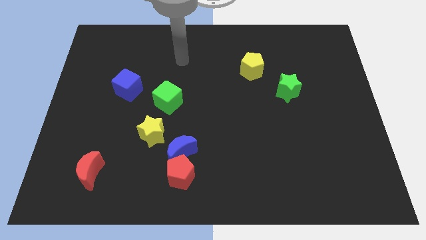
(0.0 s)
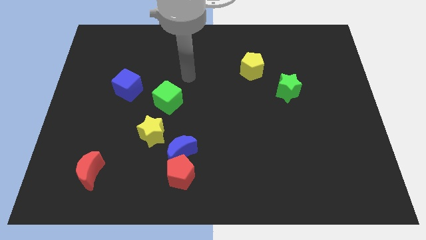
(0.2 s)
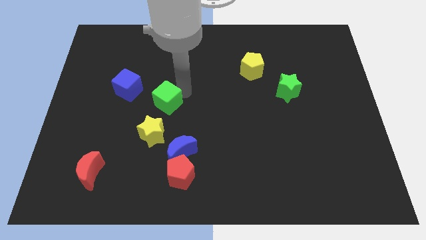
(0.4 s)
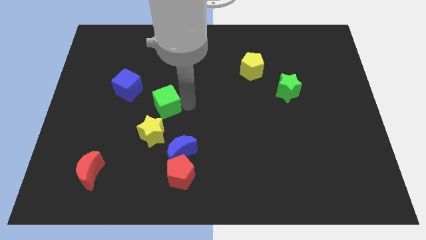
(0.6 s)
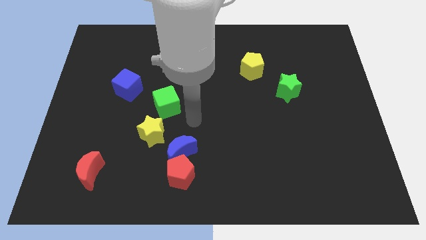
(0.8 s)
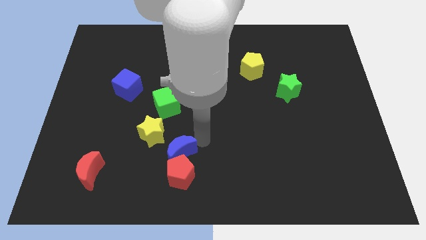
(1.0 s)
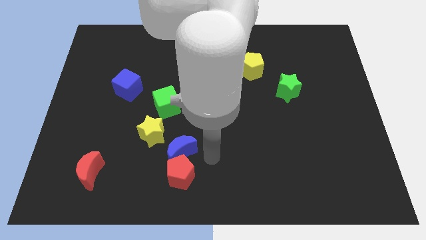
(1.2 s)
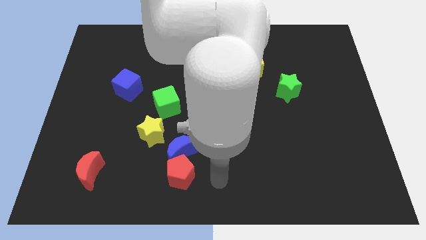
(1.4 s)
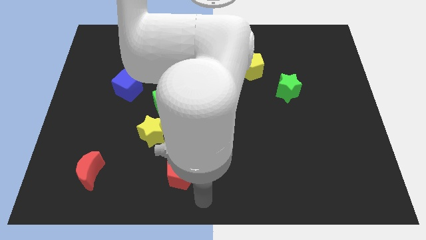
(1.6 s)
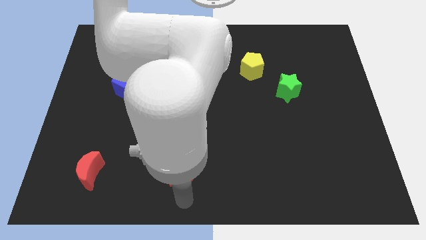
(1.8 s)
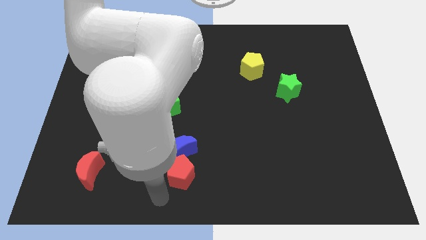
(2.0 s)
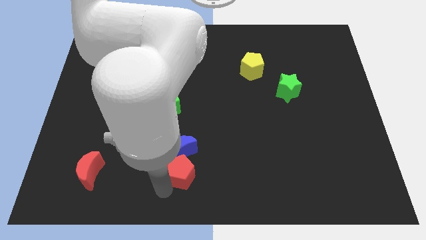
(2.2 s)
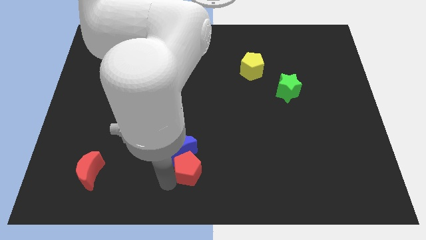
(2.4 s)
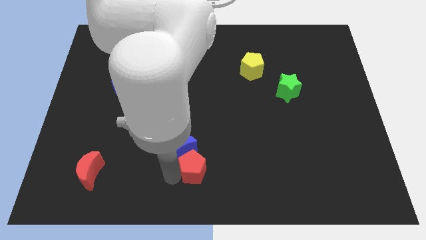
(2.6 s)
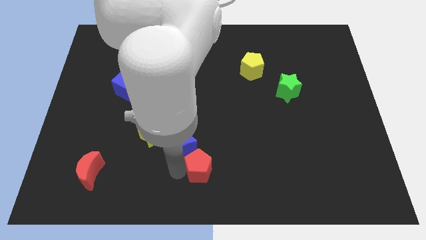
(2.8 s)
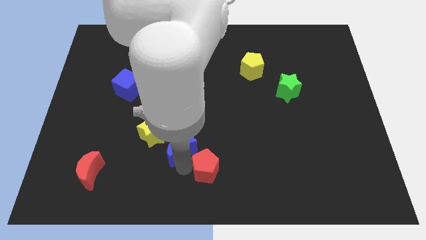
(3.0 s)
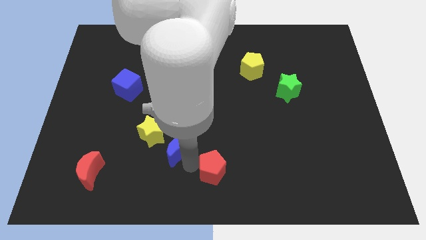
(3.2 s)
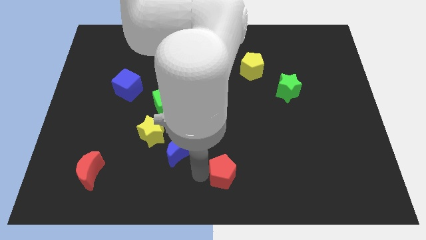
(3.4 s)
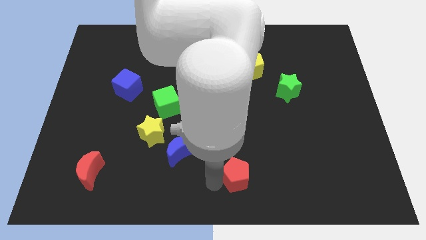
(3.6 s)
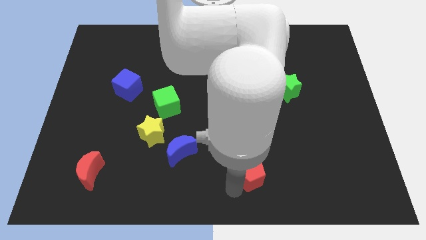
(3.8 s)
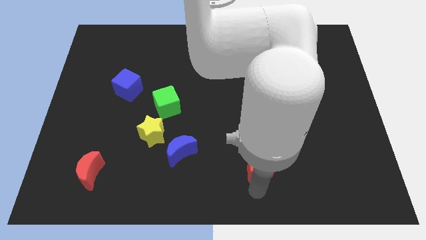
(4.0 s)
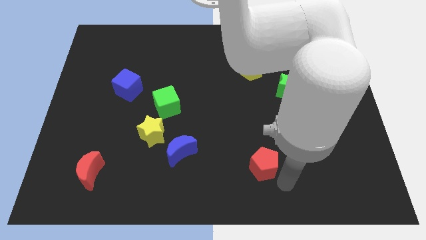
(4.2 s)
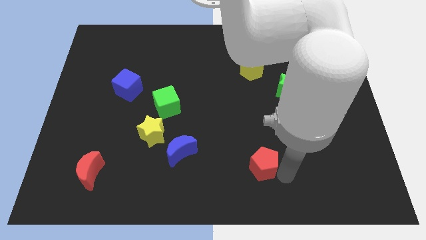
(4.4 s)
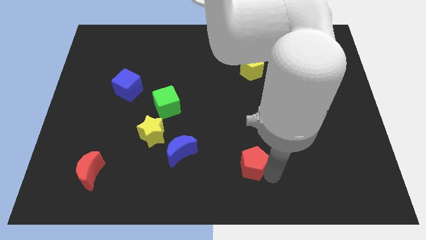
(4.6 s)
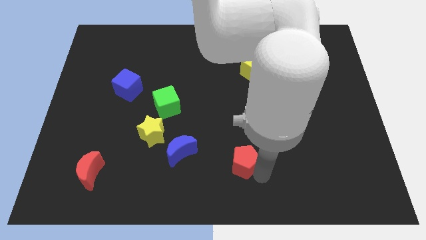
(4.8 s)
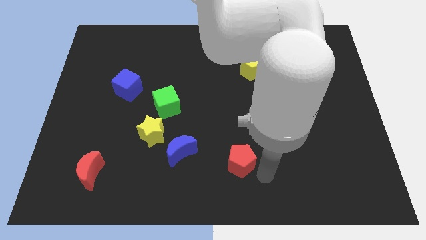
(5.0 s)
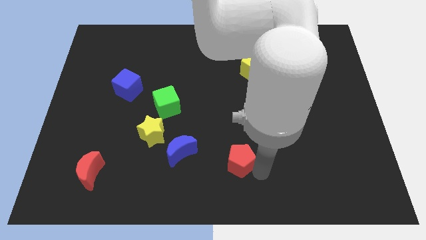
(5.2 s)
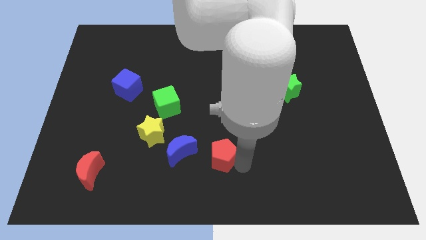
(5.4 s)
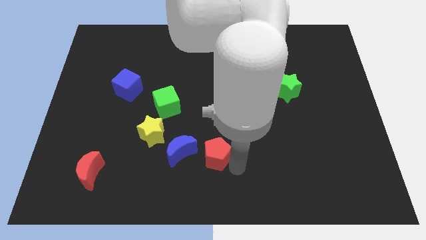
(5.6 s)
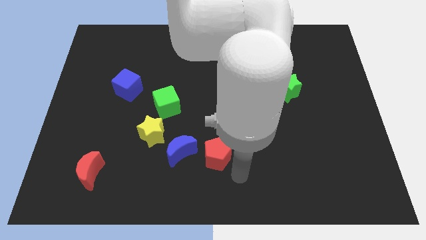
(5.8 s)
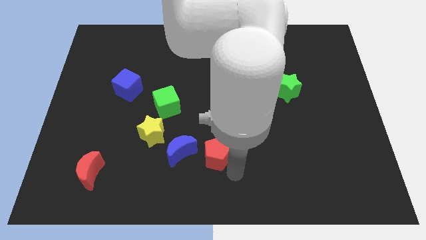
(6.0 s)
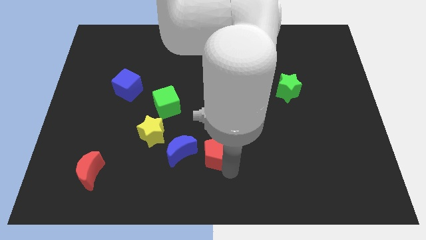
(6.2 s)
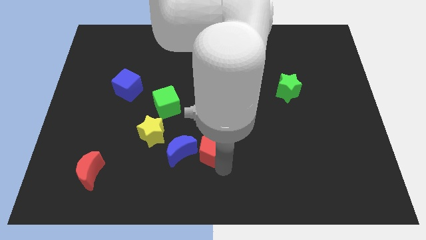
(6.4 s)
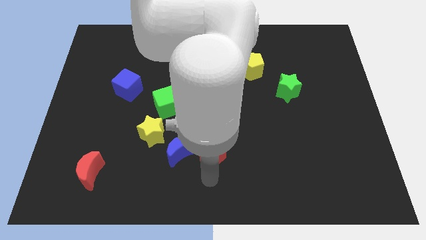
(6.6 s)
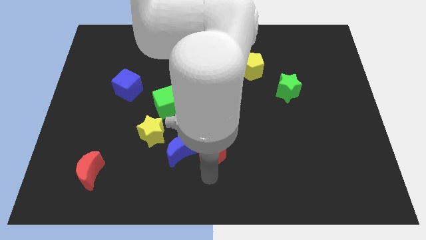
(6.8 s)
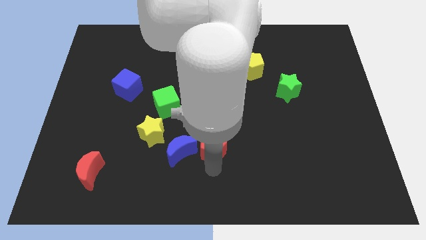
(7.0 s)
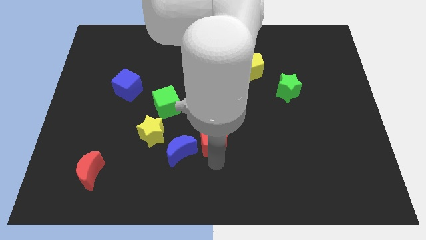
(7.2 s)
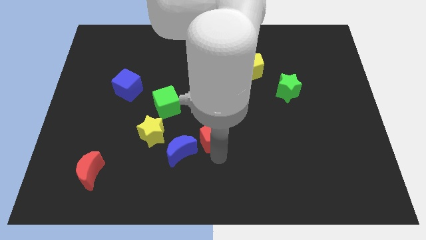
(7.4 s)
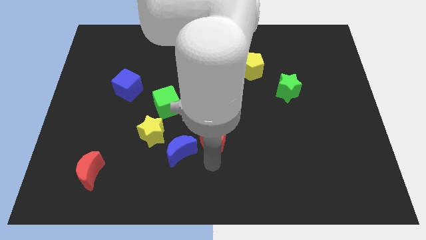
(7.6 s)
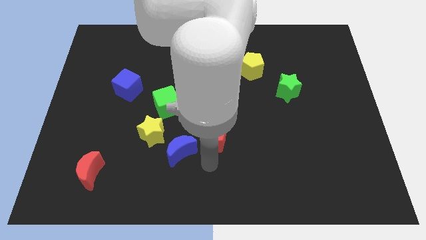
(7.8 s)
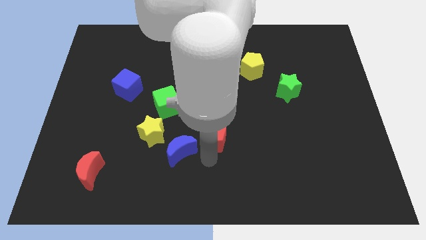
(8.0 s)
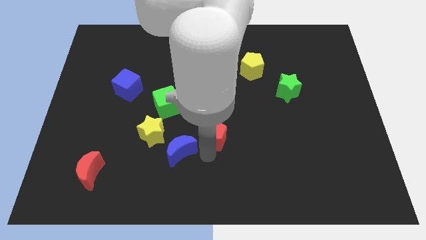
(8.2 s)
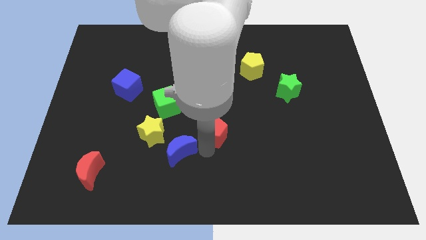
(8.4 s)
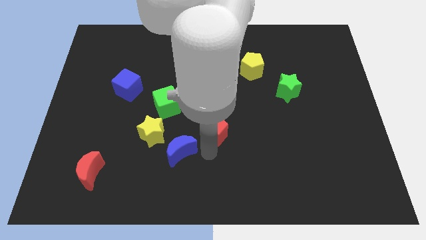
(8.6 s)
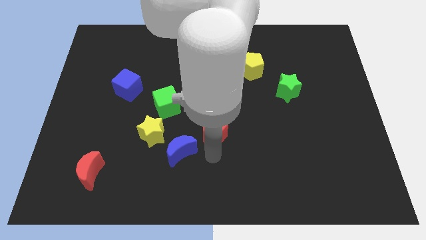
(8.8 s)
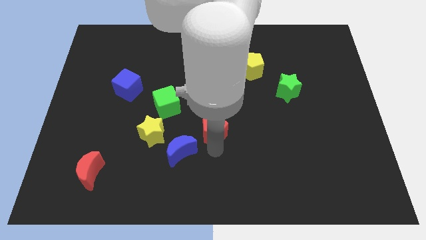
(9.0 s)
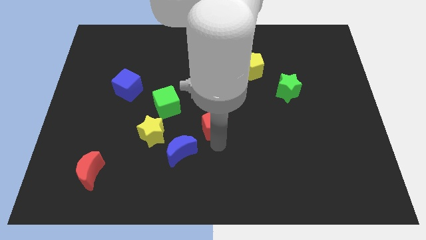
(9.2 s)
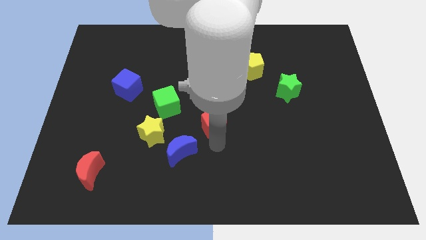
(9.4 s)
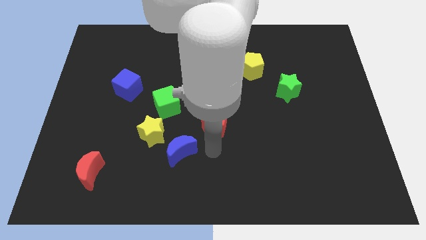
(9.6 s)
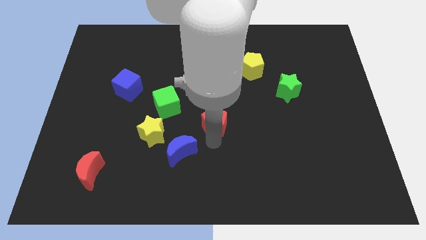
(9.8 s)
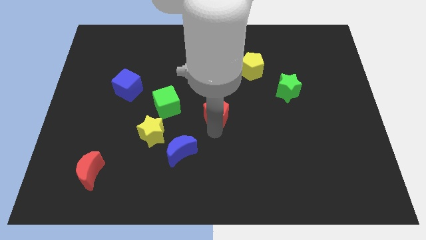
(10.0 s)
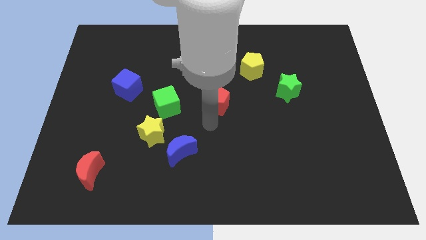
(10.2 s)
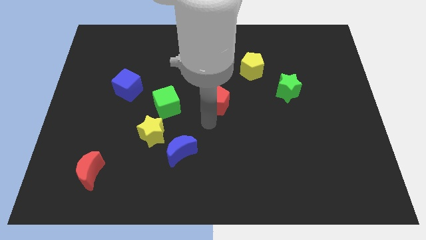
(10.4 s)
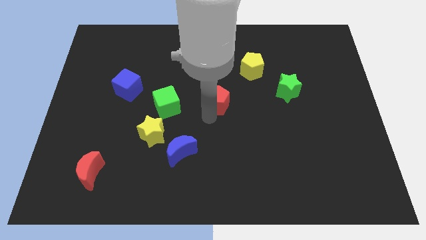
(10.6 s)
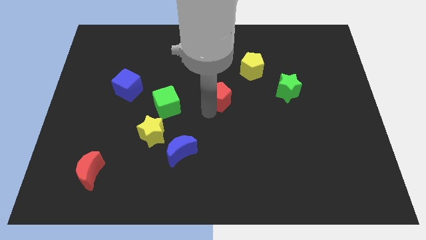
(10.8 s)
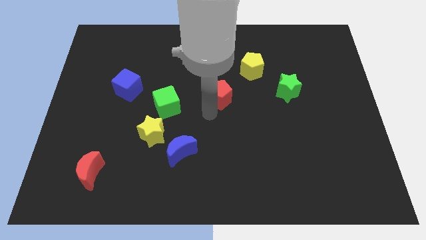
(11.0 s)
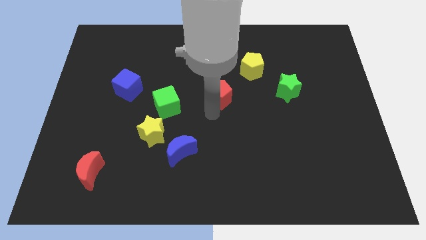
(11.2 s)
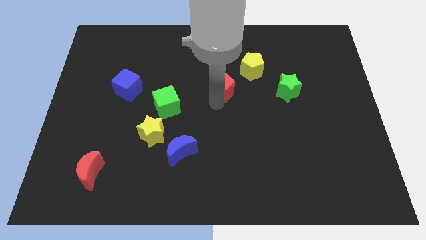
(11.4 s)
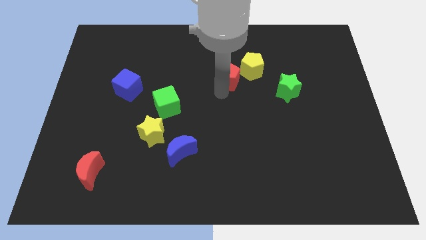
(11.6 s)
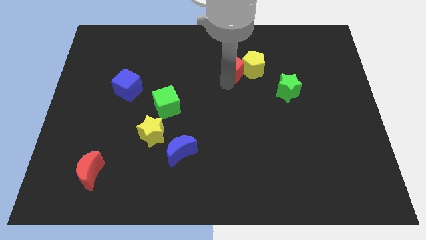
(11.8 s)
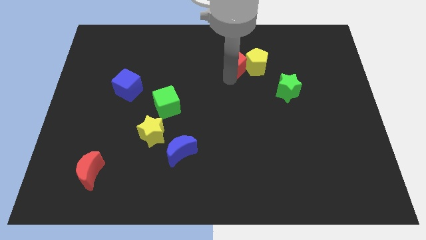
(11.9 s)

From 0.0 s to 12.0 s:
put the red pentagon to the top left side of the yellow pentagon

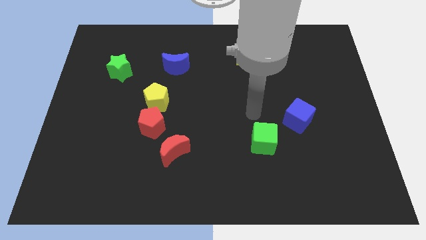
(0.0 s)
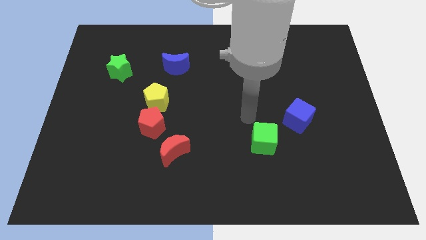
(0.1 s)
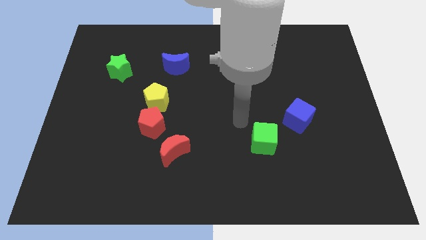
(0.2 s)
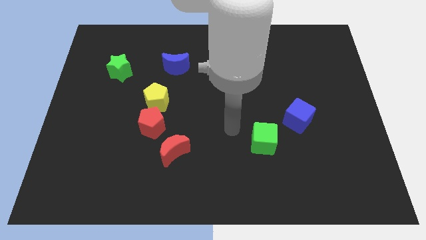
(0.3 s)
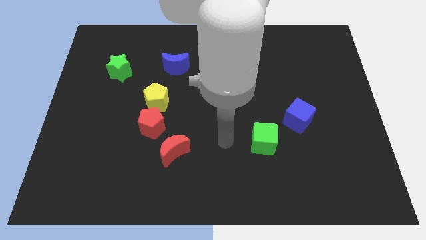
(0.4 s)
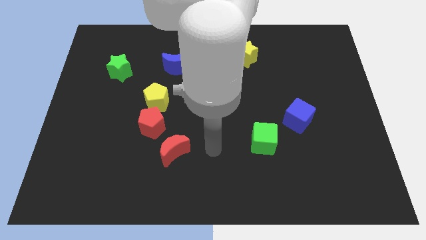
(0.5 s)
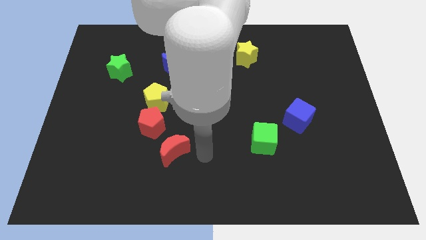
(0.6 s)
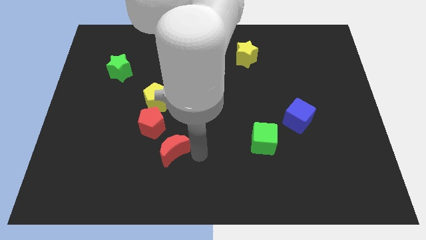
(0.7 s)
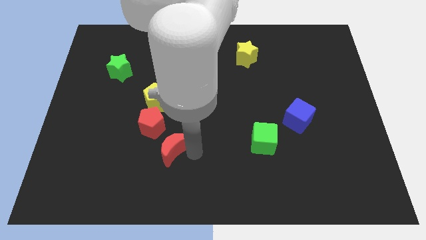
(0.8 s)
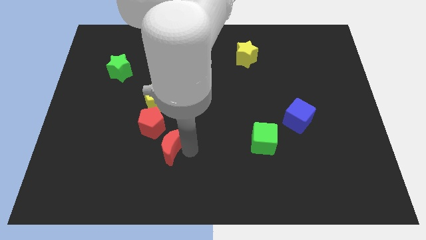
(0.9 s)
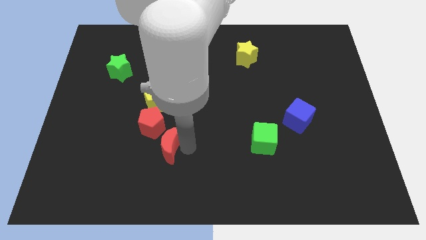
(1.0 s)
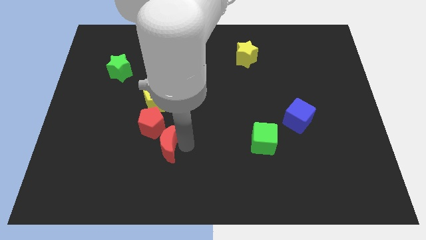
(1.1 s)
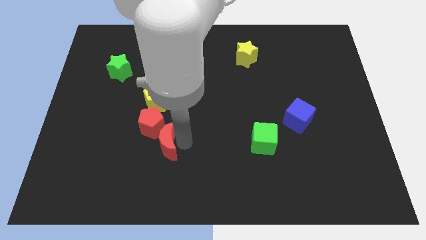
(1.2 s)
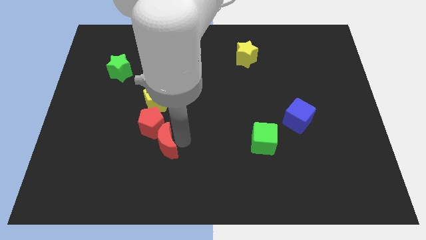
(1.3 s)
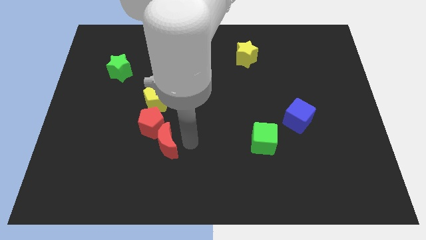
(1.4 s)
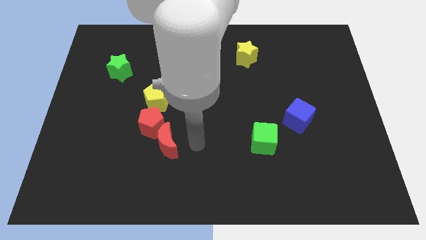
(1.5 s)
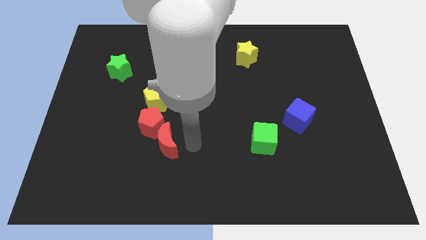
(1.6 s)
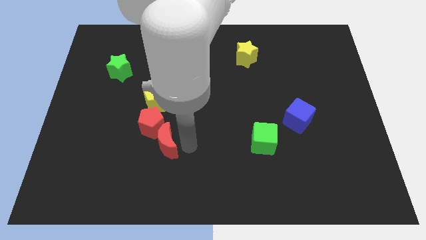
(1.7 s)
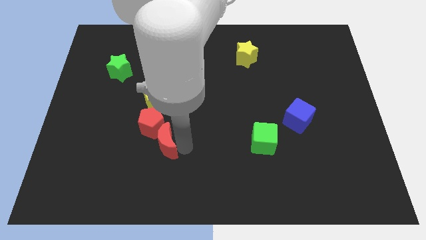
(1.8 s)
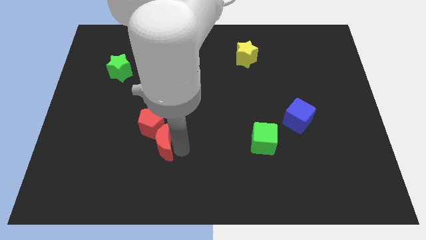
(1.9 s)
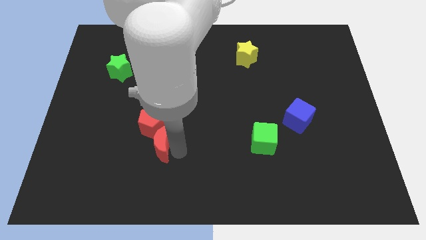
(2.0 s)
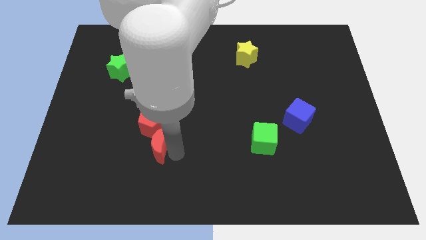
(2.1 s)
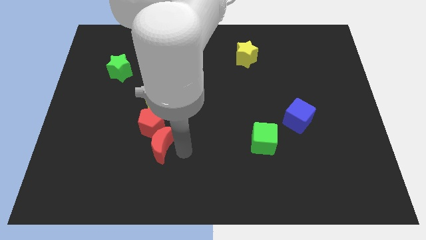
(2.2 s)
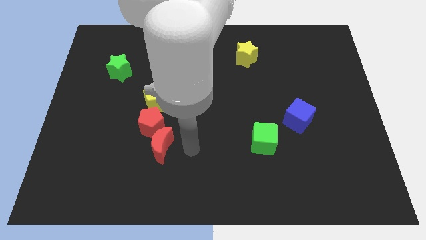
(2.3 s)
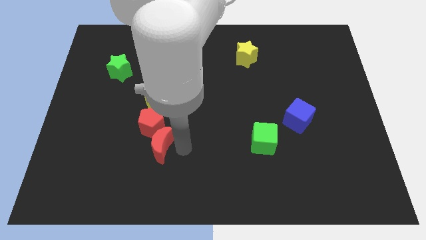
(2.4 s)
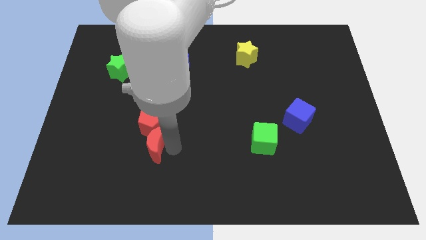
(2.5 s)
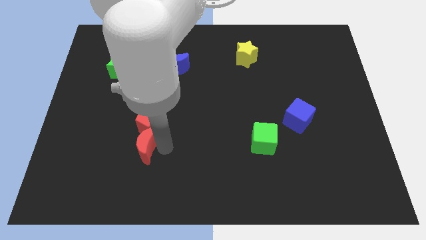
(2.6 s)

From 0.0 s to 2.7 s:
slide the red moon to the bottom left side of the red pentagon
